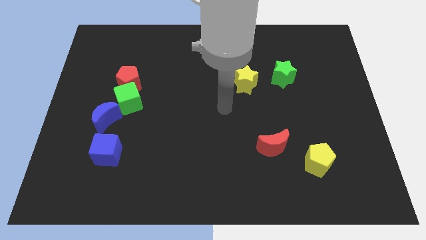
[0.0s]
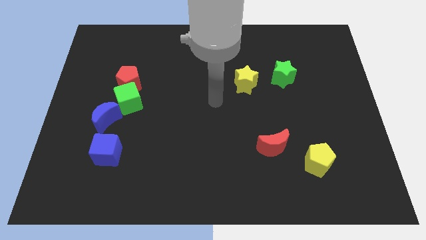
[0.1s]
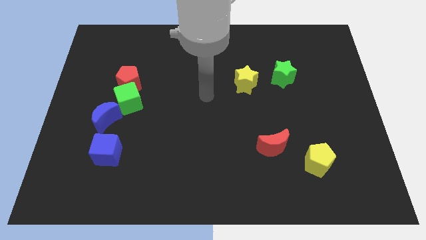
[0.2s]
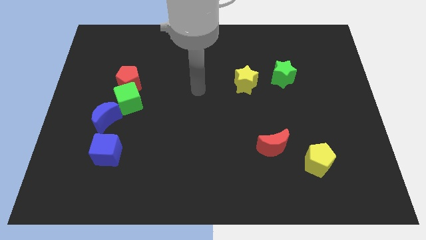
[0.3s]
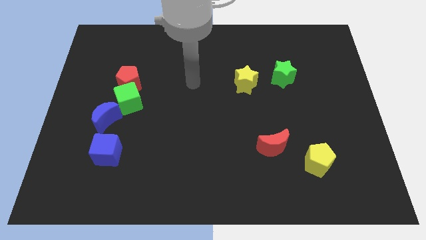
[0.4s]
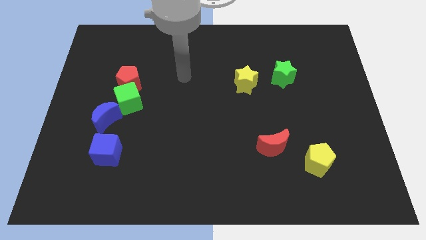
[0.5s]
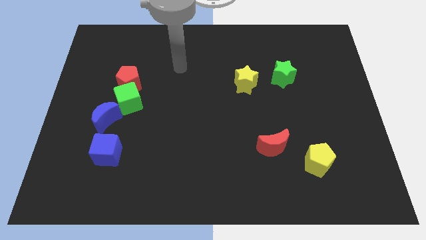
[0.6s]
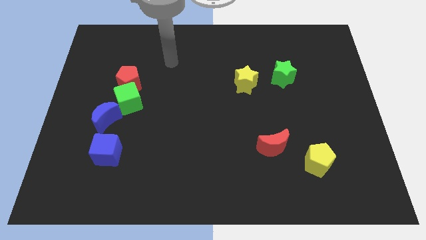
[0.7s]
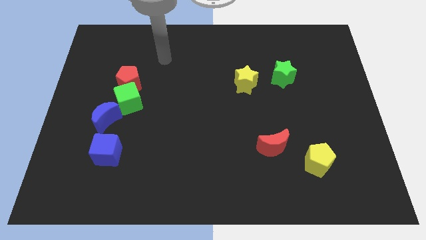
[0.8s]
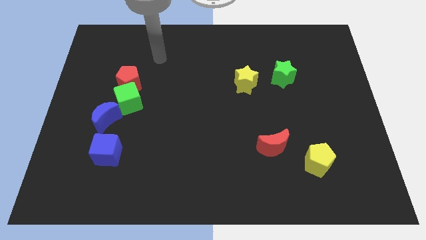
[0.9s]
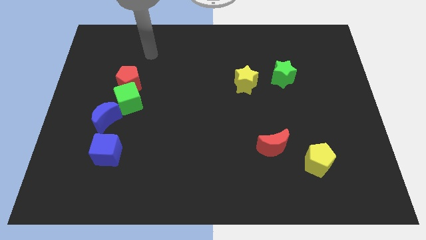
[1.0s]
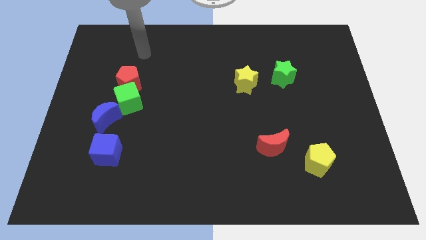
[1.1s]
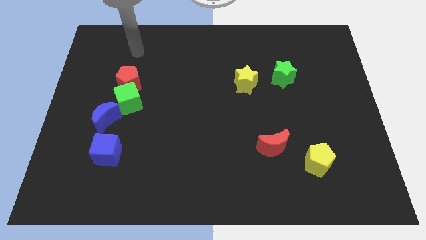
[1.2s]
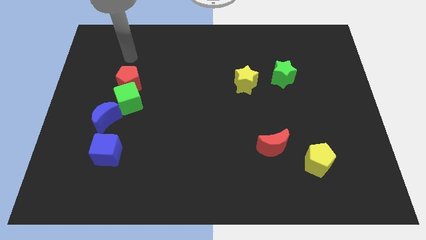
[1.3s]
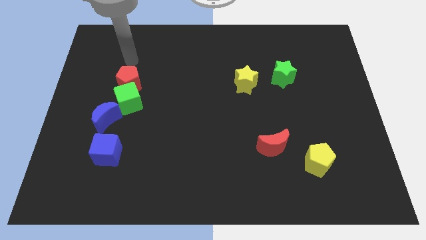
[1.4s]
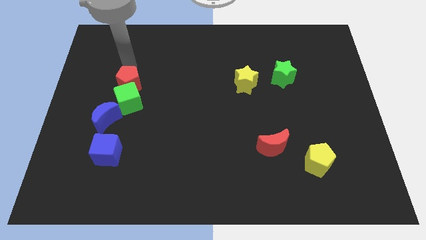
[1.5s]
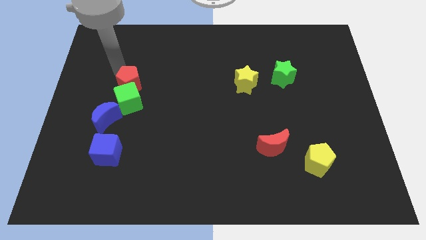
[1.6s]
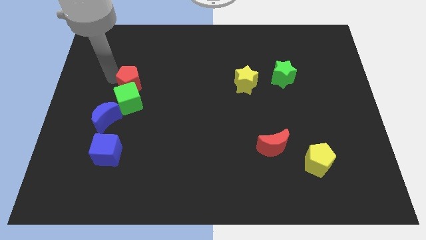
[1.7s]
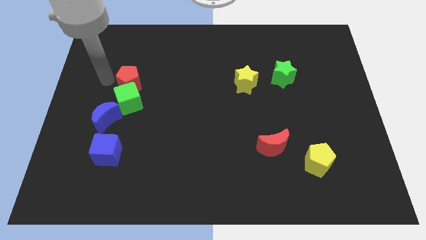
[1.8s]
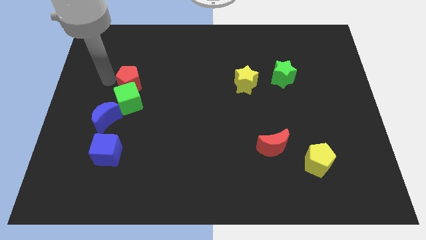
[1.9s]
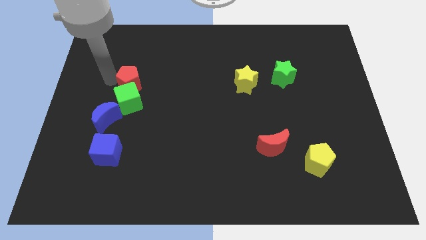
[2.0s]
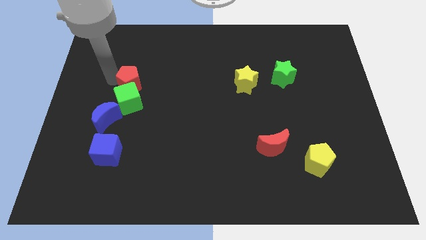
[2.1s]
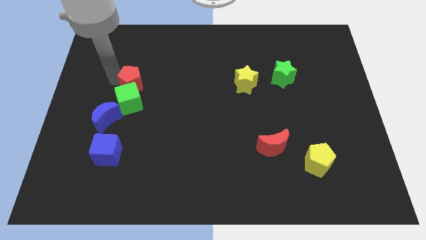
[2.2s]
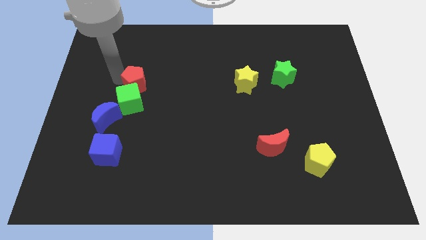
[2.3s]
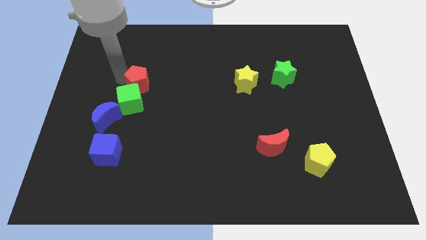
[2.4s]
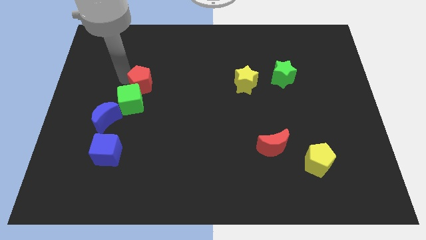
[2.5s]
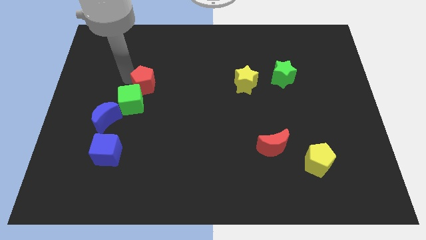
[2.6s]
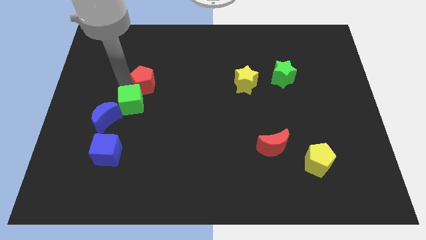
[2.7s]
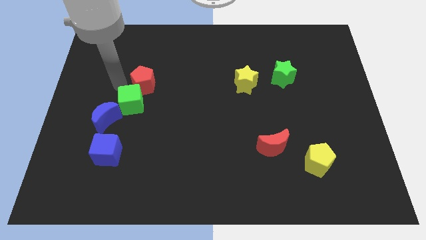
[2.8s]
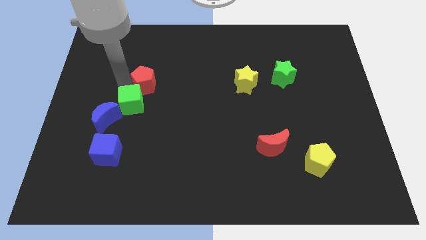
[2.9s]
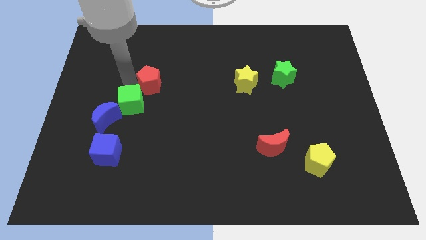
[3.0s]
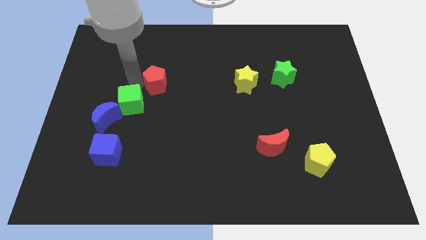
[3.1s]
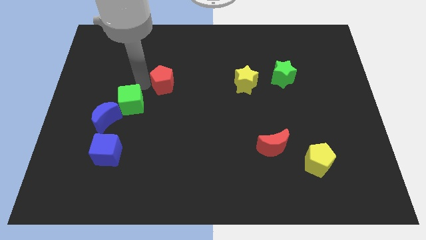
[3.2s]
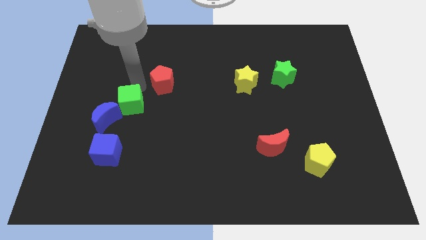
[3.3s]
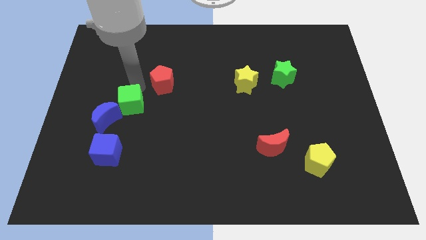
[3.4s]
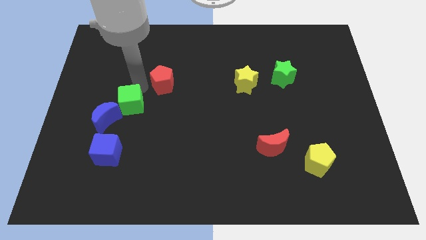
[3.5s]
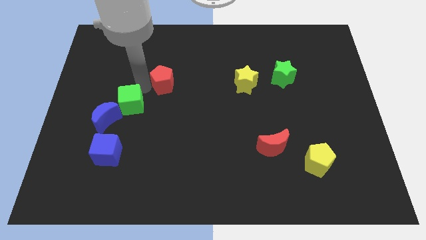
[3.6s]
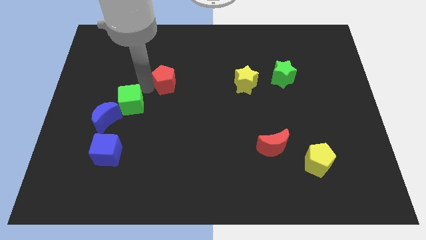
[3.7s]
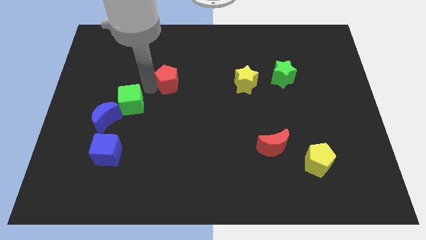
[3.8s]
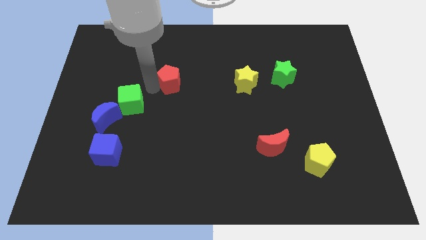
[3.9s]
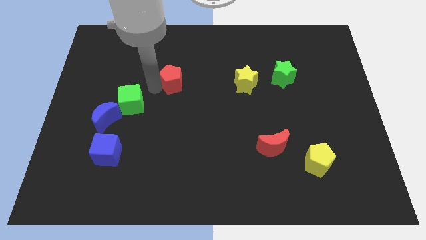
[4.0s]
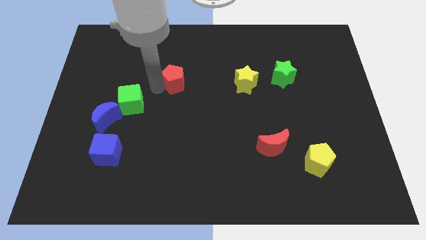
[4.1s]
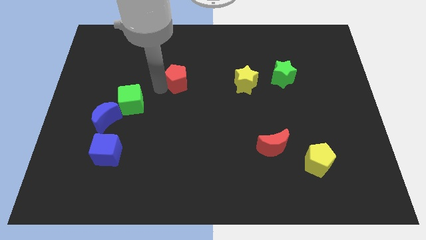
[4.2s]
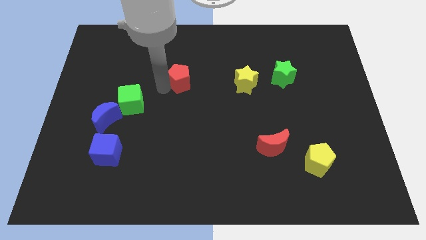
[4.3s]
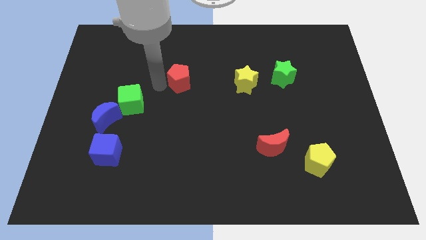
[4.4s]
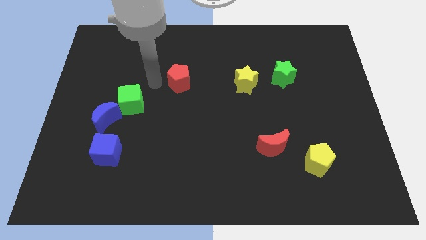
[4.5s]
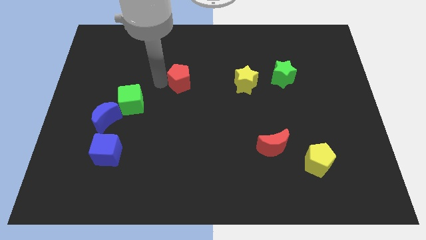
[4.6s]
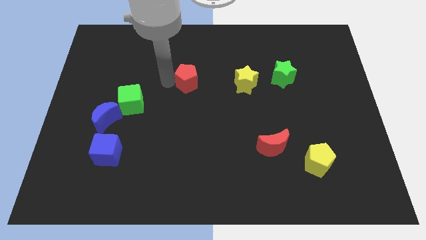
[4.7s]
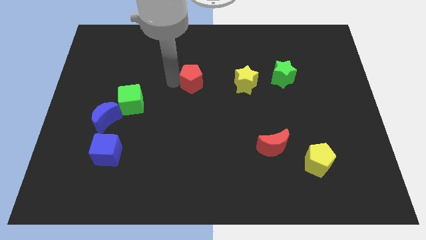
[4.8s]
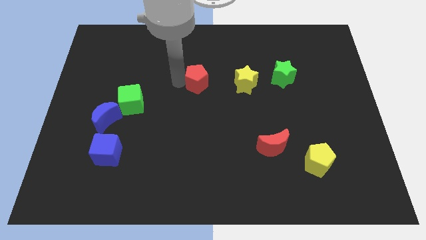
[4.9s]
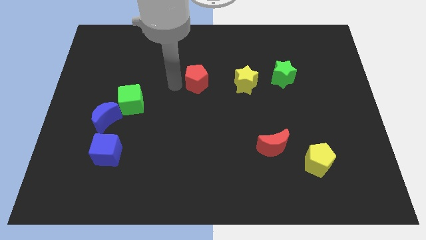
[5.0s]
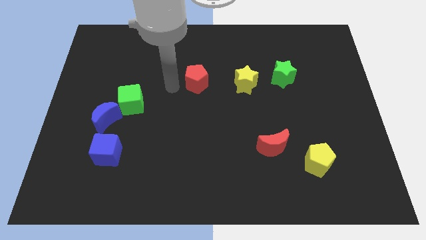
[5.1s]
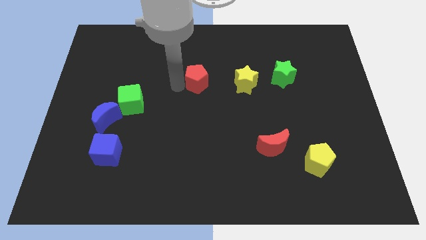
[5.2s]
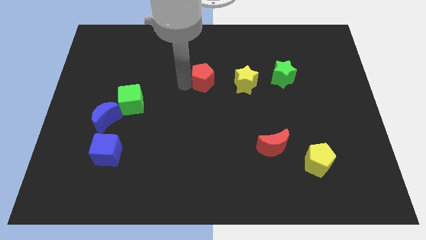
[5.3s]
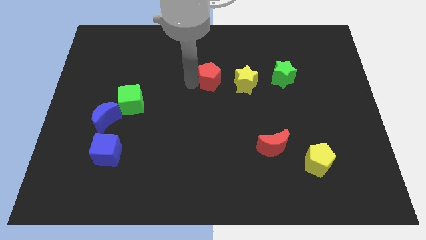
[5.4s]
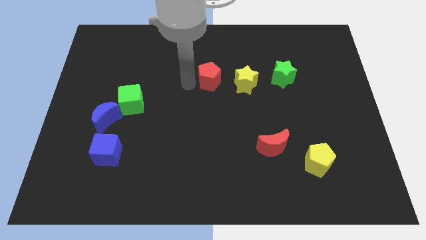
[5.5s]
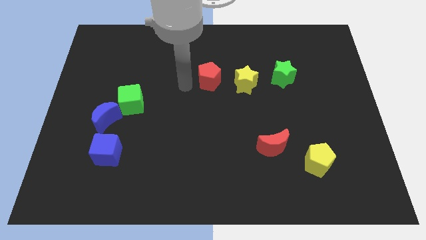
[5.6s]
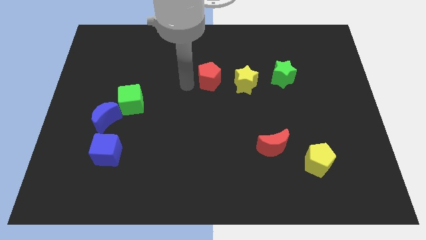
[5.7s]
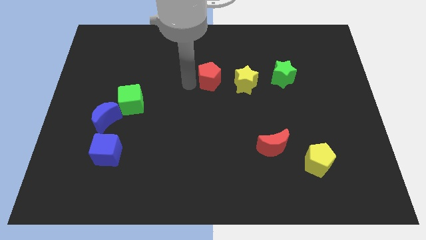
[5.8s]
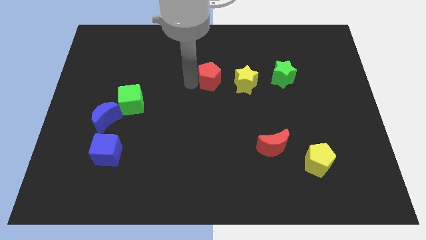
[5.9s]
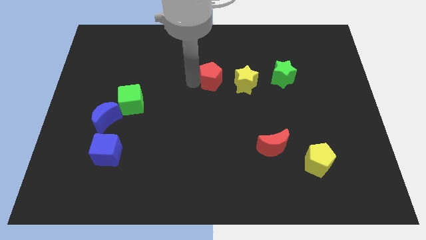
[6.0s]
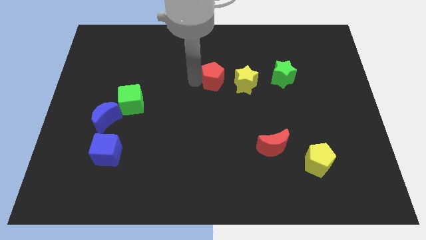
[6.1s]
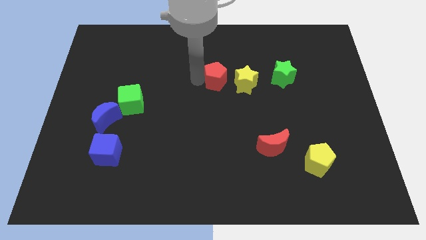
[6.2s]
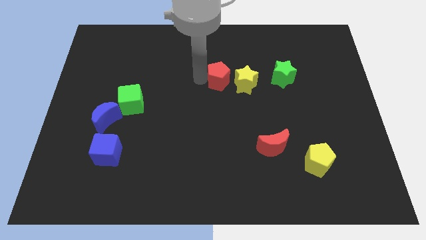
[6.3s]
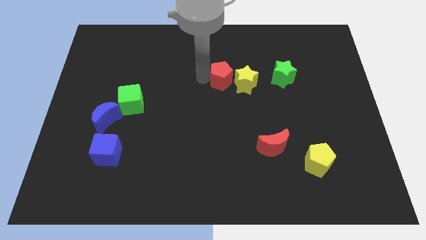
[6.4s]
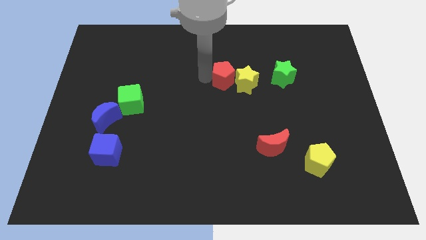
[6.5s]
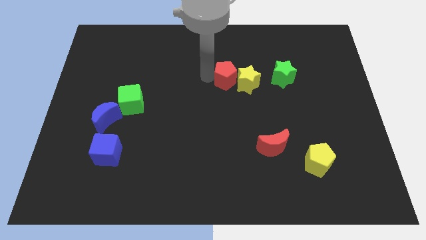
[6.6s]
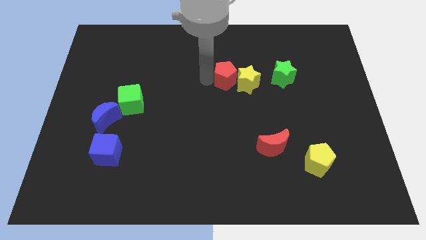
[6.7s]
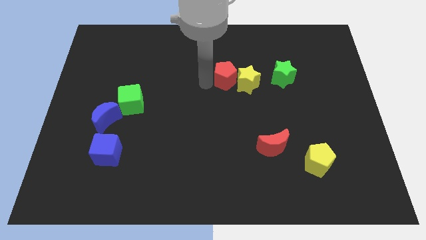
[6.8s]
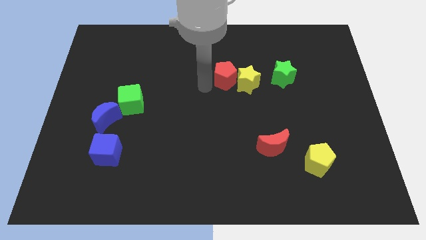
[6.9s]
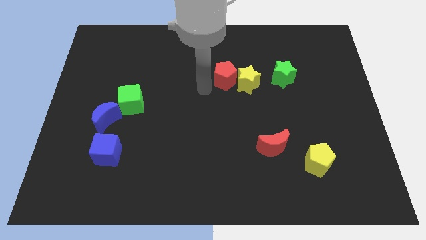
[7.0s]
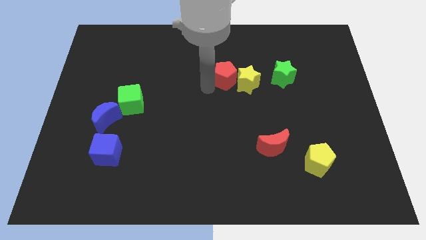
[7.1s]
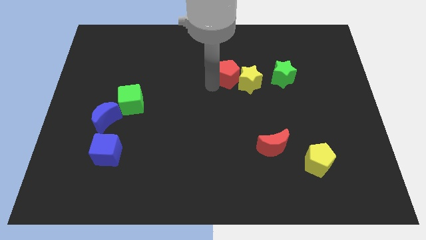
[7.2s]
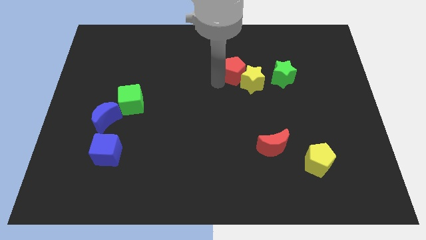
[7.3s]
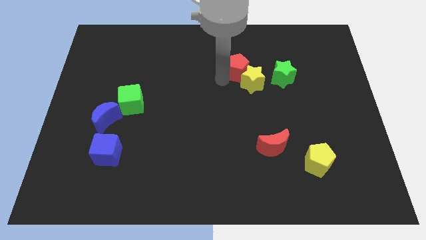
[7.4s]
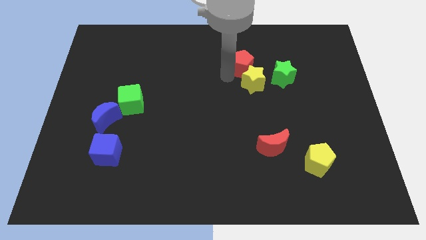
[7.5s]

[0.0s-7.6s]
put the red pentagon to the top left of the green star
